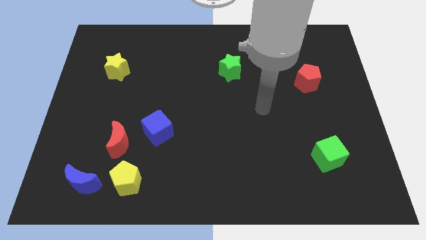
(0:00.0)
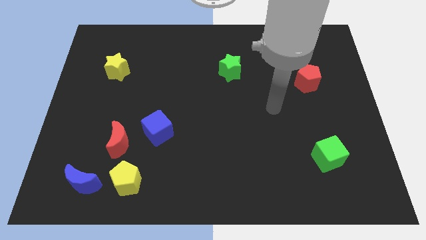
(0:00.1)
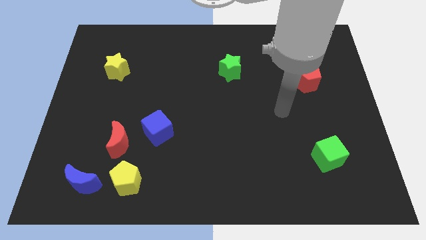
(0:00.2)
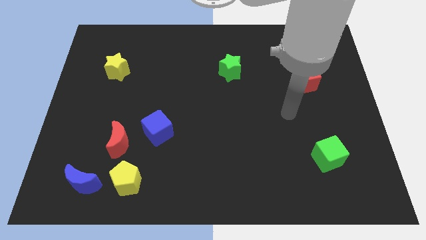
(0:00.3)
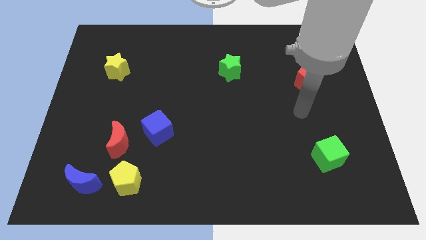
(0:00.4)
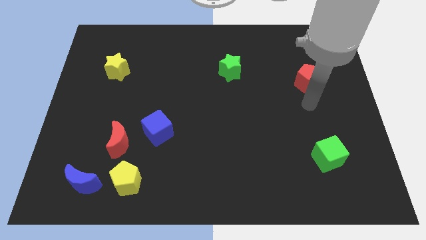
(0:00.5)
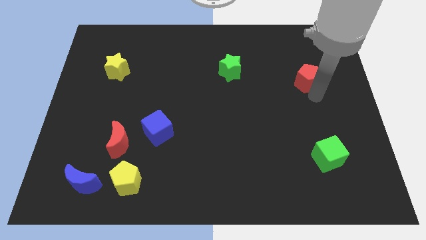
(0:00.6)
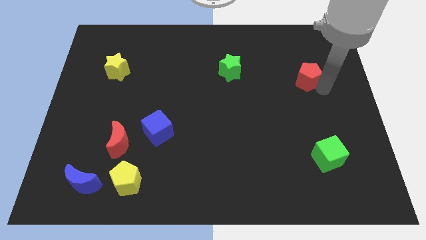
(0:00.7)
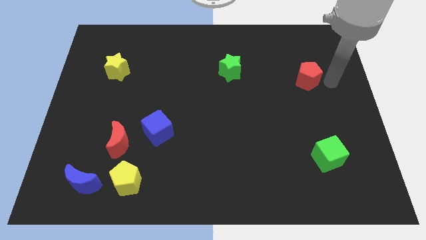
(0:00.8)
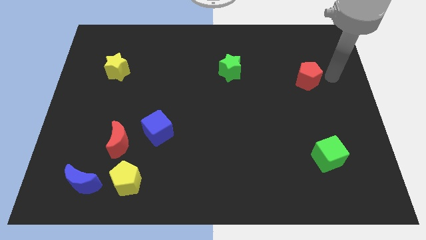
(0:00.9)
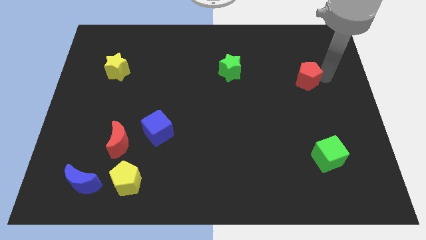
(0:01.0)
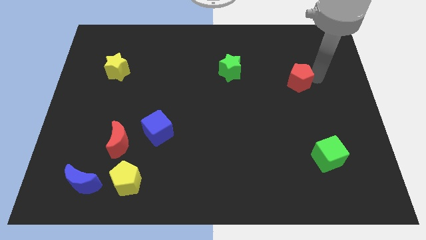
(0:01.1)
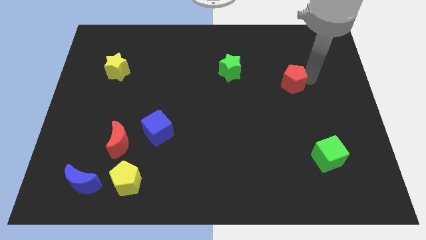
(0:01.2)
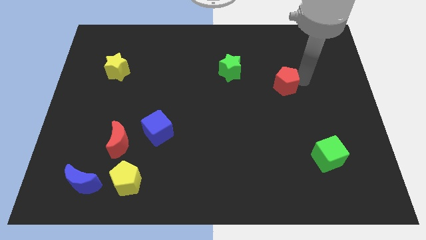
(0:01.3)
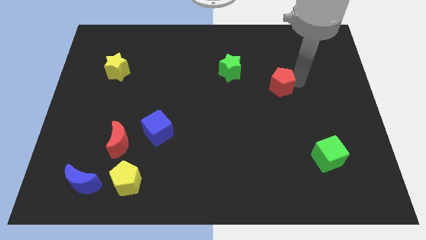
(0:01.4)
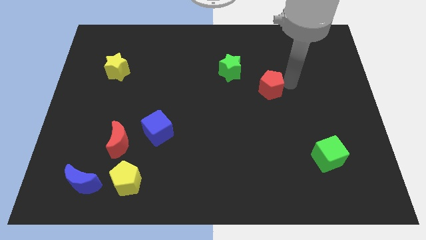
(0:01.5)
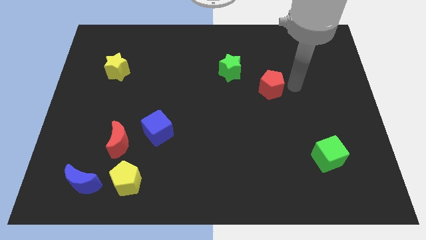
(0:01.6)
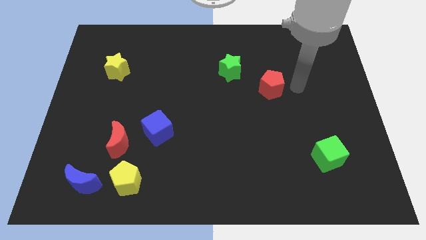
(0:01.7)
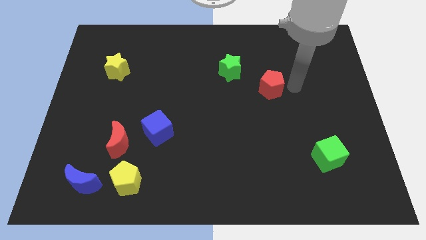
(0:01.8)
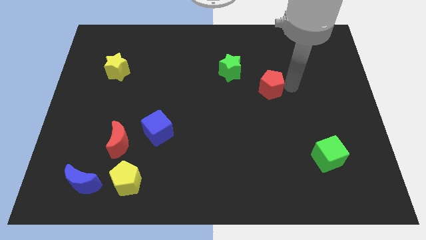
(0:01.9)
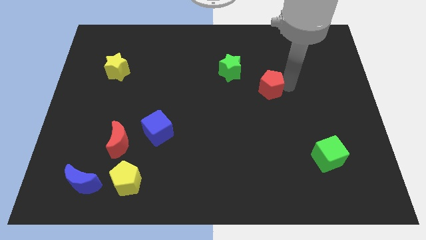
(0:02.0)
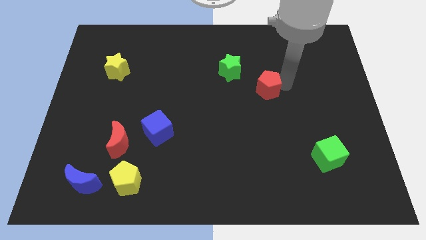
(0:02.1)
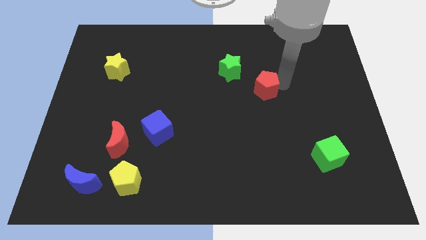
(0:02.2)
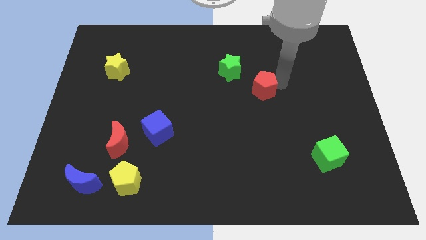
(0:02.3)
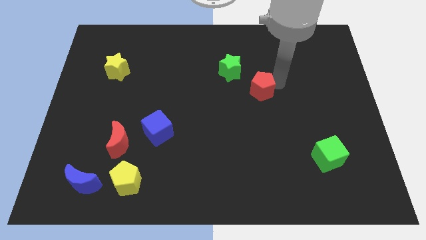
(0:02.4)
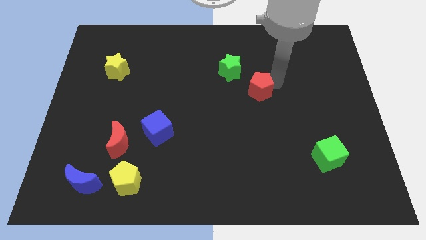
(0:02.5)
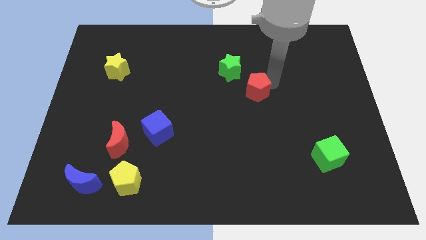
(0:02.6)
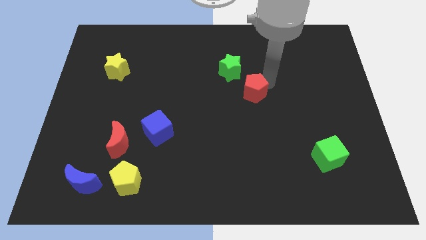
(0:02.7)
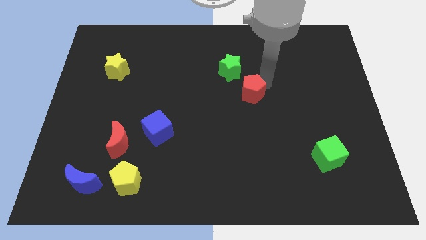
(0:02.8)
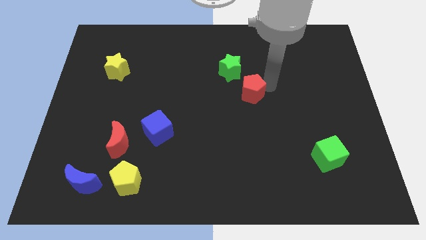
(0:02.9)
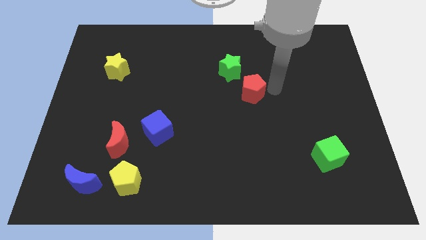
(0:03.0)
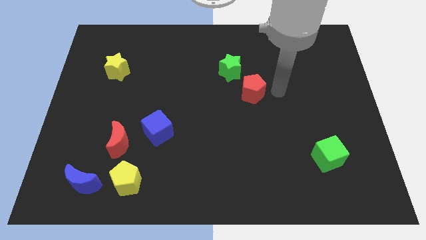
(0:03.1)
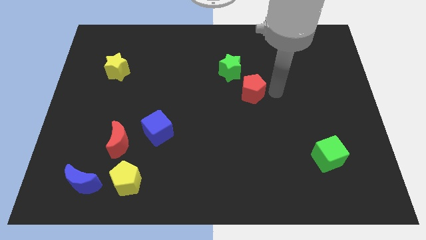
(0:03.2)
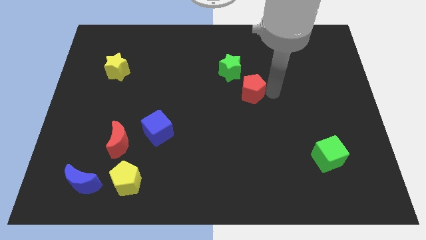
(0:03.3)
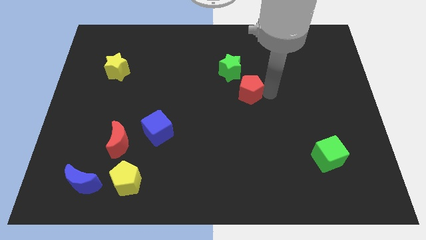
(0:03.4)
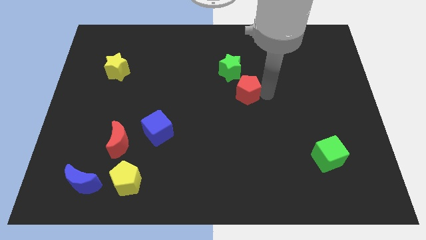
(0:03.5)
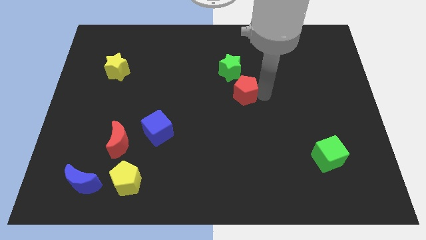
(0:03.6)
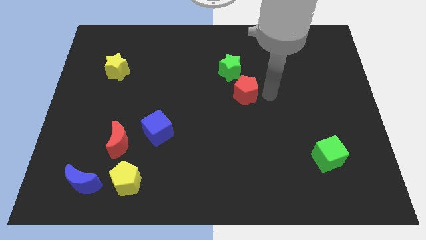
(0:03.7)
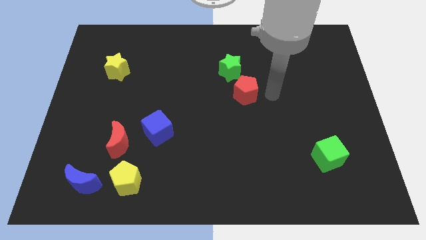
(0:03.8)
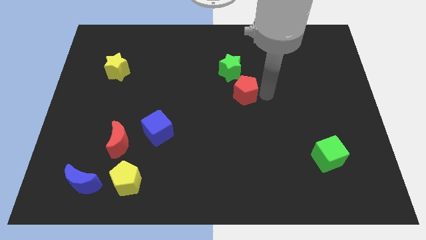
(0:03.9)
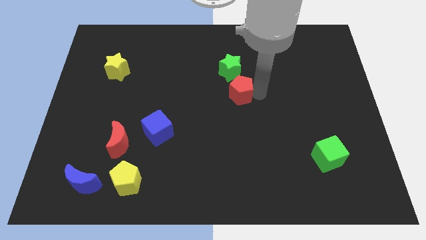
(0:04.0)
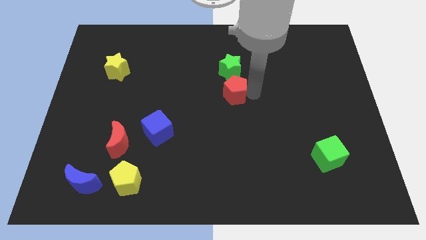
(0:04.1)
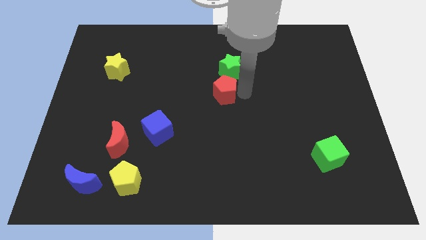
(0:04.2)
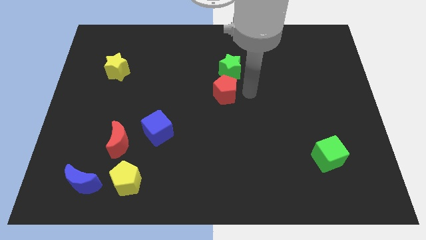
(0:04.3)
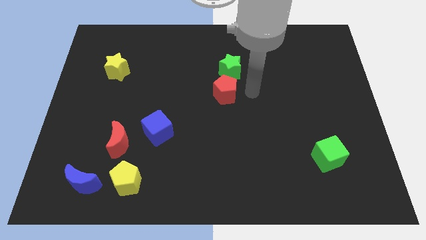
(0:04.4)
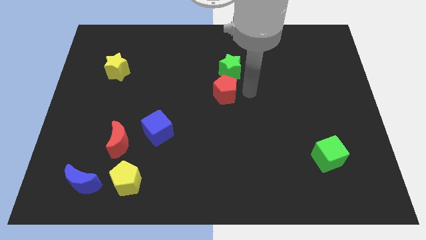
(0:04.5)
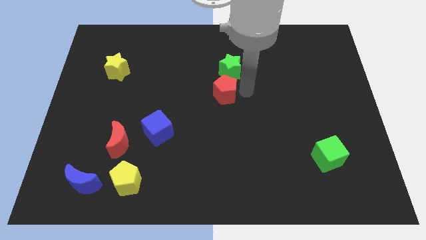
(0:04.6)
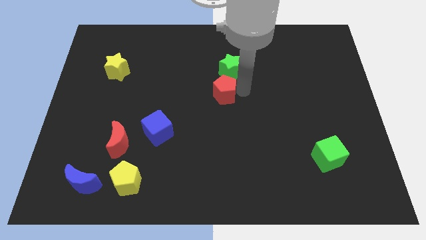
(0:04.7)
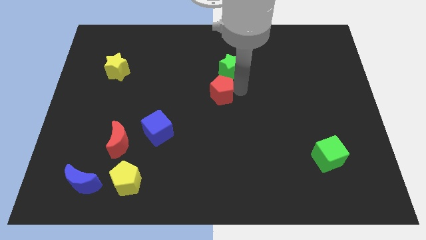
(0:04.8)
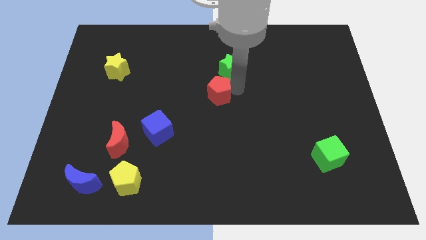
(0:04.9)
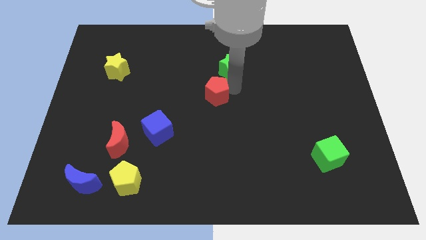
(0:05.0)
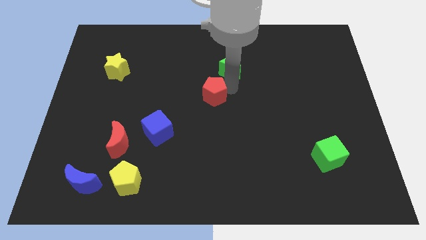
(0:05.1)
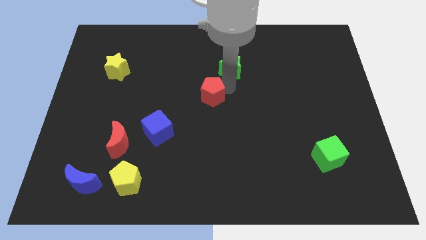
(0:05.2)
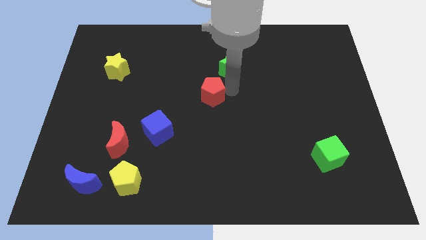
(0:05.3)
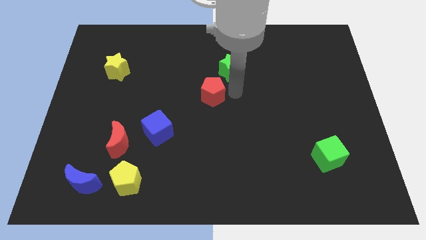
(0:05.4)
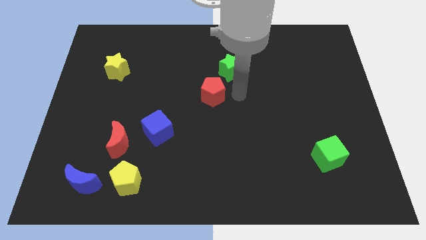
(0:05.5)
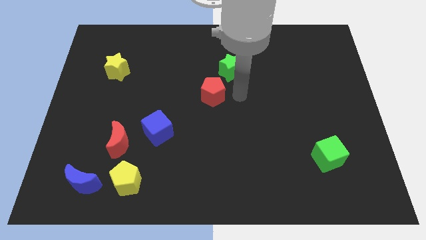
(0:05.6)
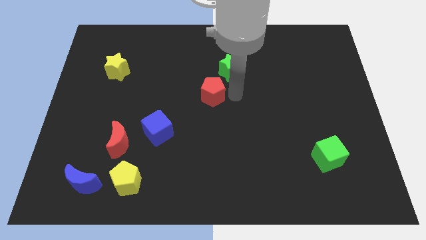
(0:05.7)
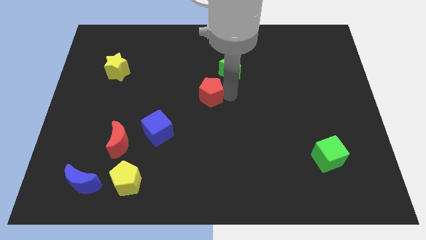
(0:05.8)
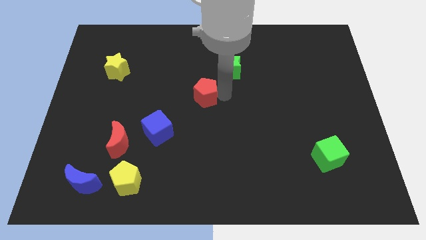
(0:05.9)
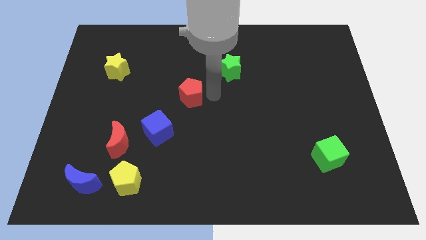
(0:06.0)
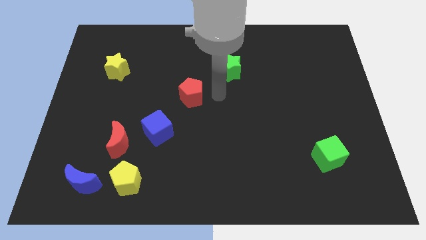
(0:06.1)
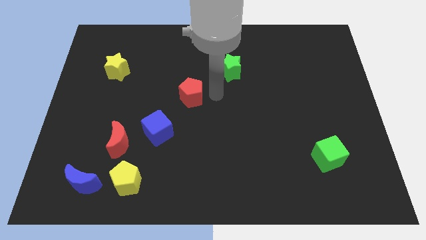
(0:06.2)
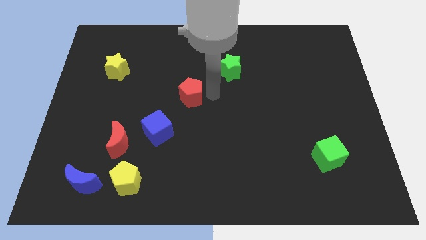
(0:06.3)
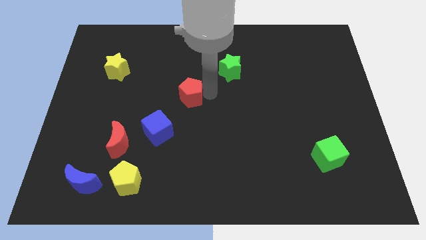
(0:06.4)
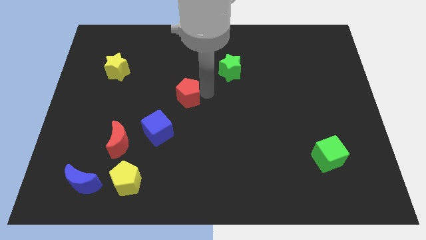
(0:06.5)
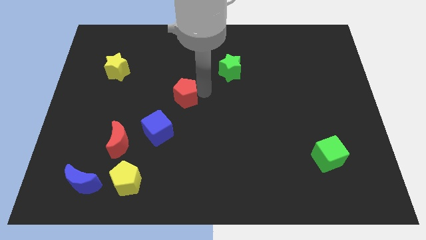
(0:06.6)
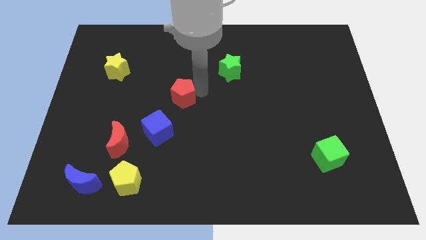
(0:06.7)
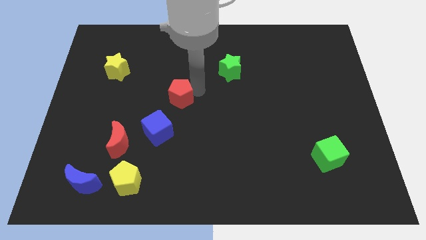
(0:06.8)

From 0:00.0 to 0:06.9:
slide the red pentagon above the blue cube

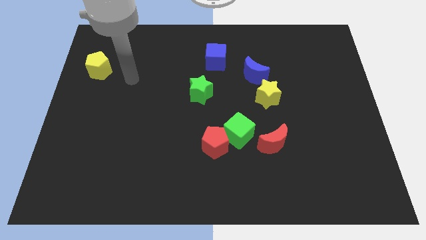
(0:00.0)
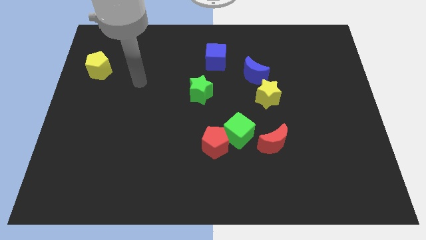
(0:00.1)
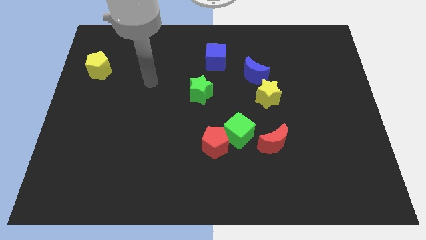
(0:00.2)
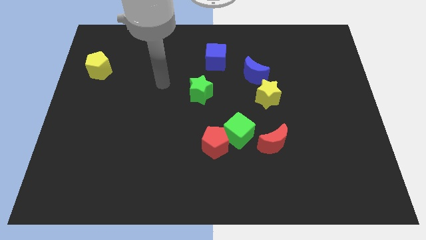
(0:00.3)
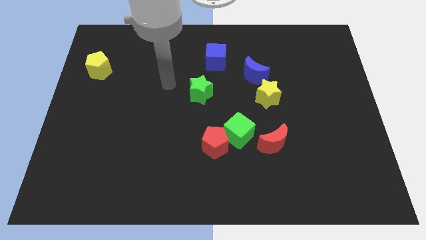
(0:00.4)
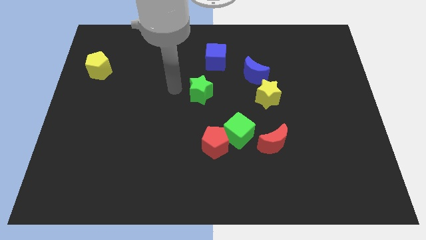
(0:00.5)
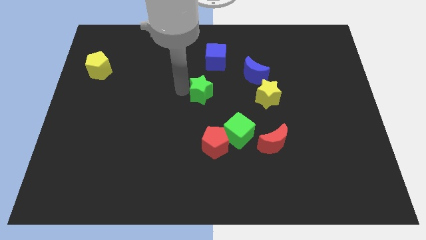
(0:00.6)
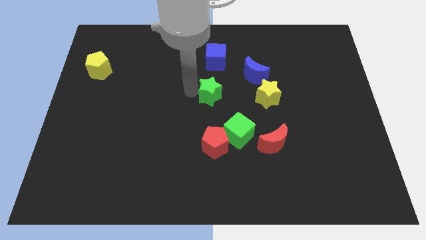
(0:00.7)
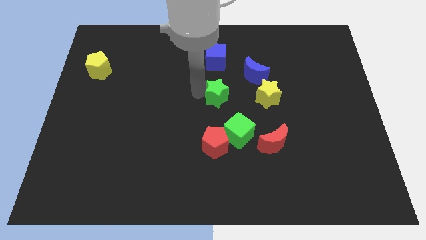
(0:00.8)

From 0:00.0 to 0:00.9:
put the green star above the green cube
